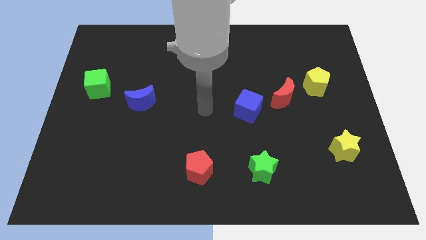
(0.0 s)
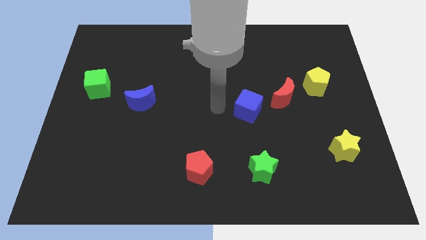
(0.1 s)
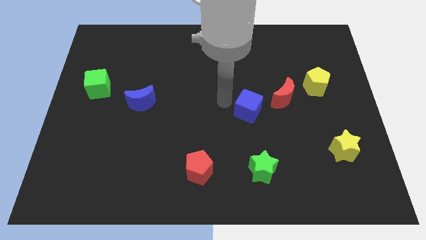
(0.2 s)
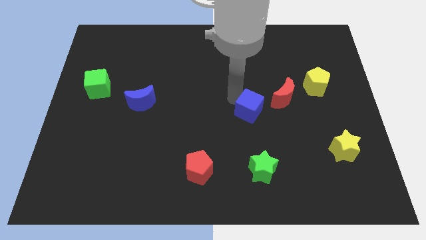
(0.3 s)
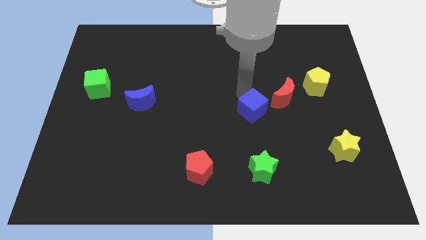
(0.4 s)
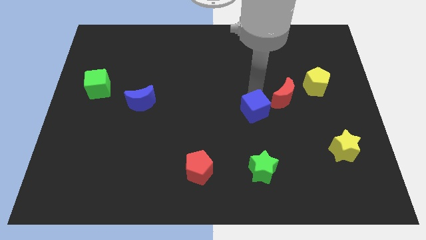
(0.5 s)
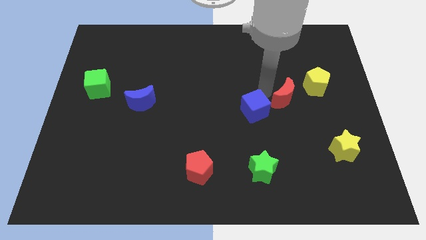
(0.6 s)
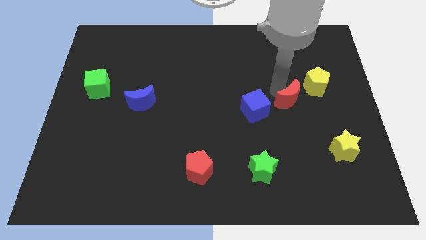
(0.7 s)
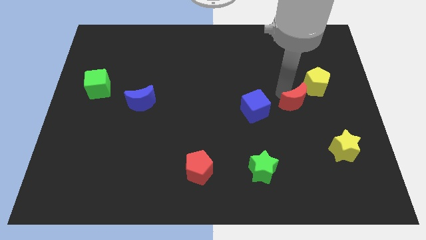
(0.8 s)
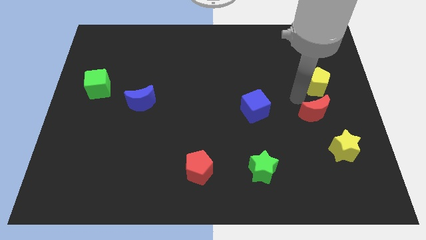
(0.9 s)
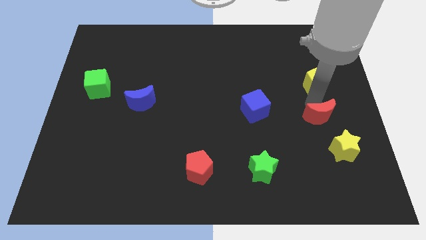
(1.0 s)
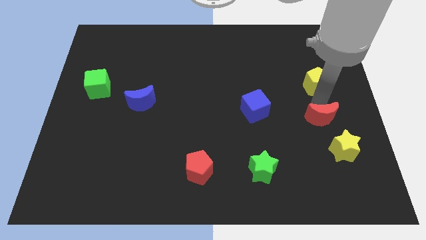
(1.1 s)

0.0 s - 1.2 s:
move the yellow pentagon away from the red moon

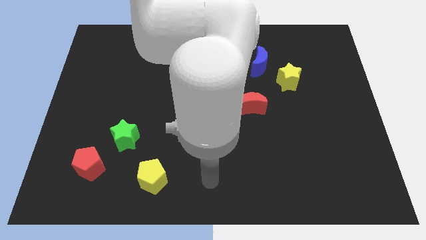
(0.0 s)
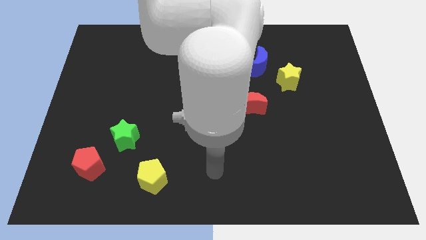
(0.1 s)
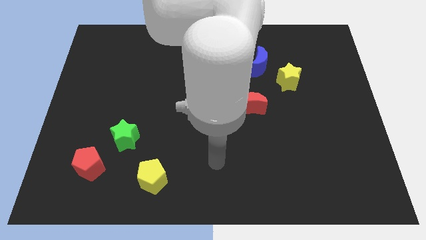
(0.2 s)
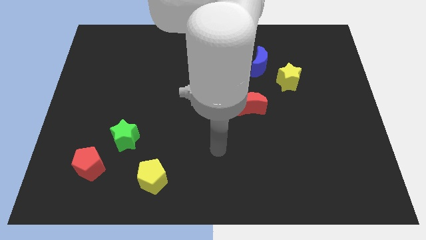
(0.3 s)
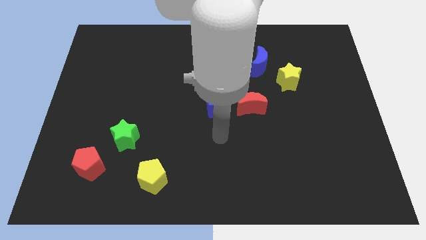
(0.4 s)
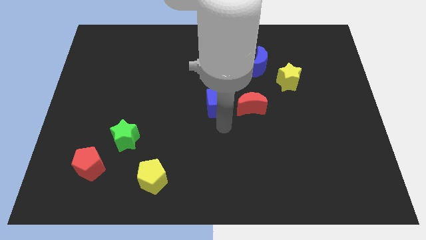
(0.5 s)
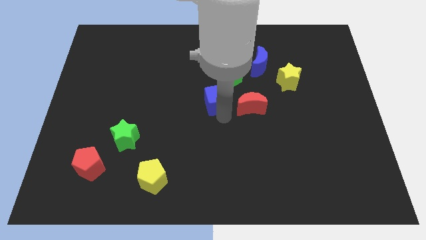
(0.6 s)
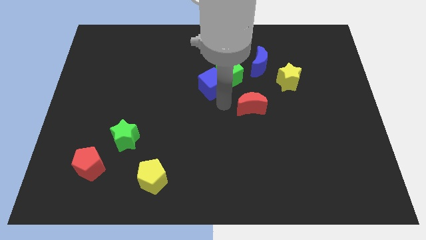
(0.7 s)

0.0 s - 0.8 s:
move the red moon away from the blue cube

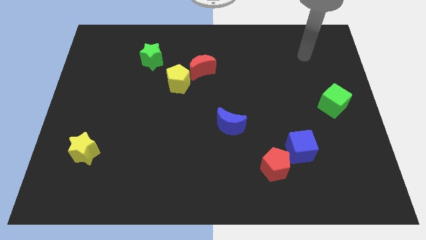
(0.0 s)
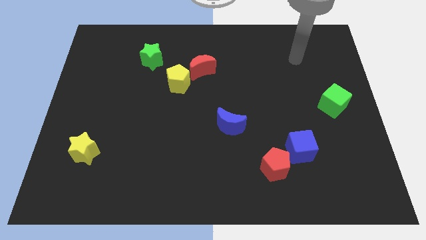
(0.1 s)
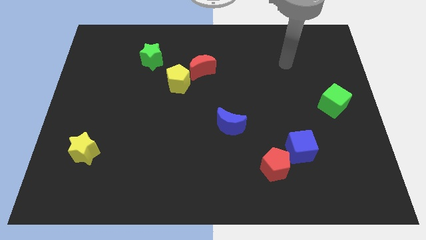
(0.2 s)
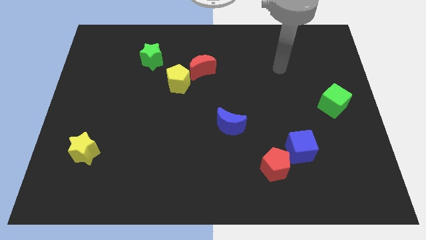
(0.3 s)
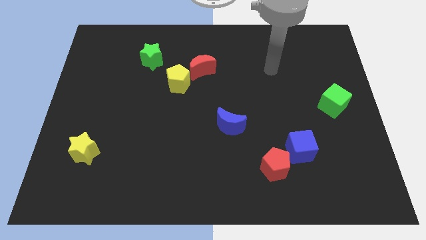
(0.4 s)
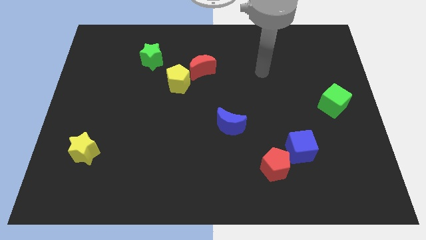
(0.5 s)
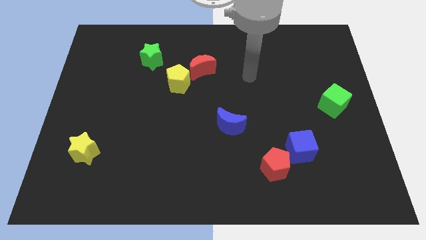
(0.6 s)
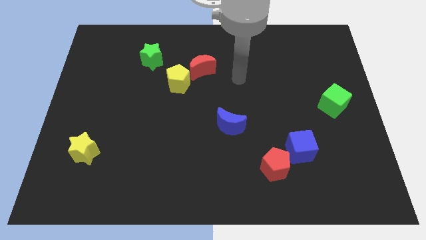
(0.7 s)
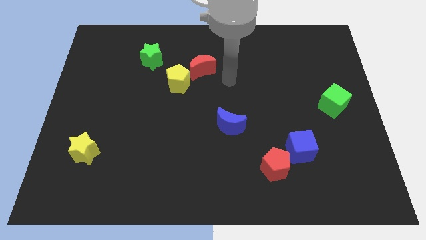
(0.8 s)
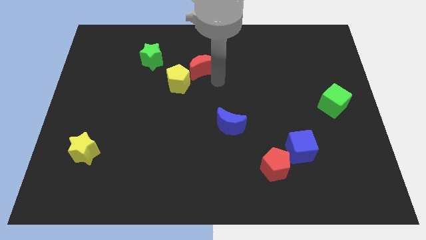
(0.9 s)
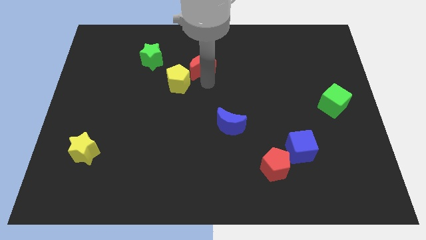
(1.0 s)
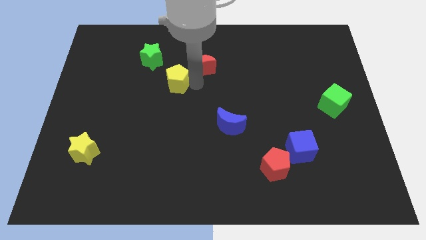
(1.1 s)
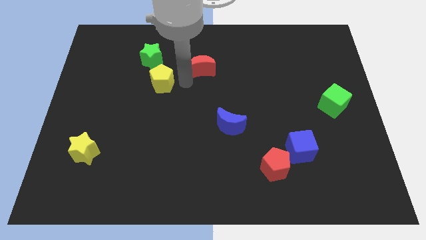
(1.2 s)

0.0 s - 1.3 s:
separate the red moon from the yellow pentagon

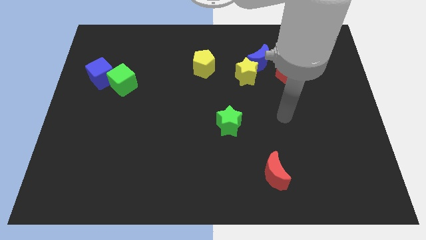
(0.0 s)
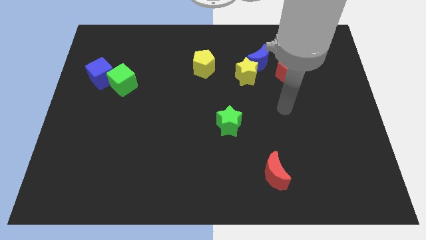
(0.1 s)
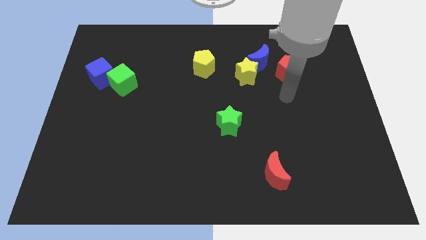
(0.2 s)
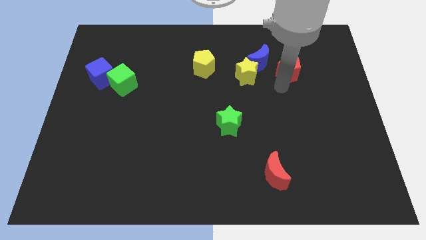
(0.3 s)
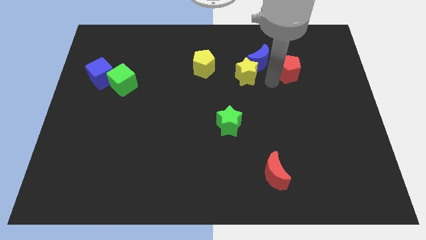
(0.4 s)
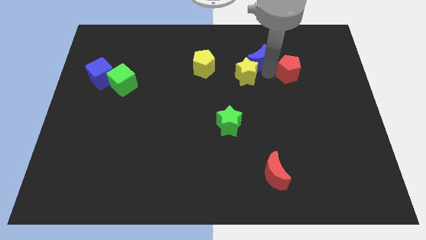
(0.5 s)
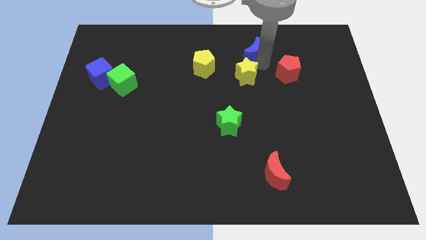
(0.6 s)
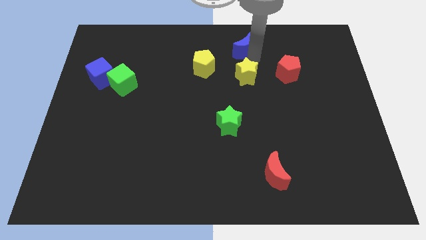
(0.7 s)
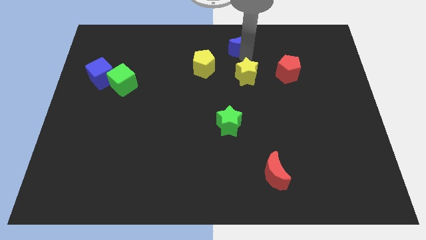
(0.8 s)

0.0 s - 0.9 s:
separate the yellow star from the blue moon

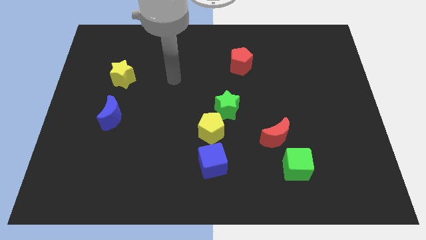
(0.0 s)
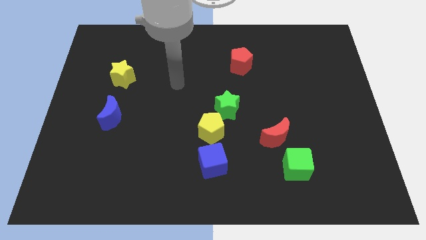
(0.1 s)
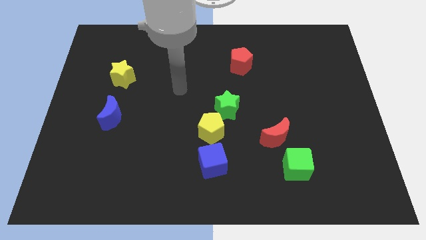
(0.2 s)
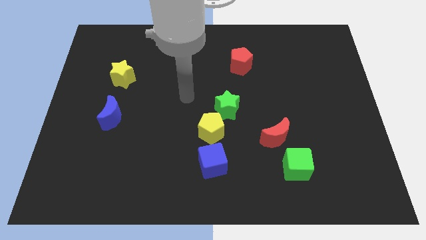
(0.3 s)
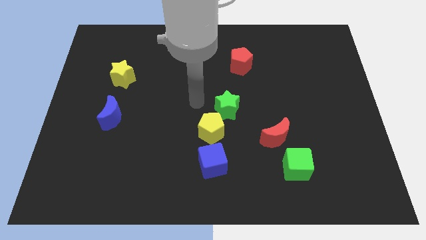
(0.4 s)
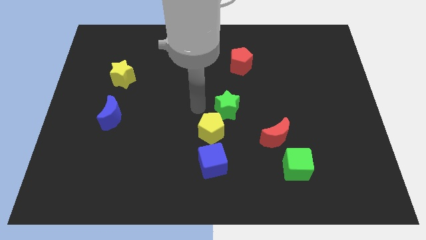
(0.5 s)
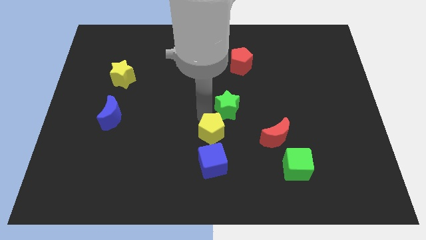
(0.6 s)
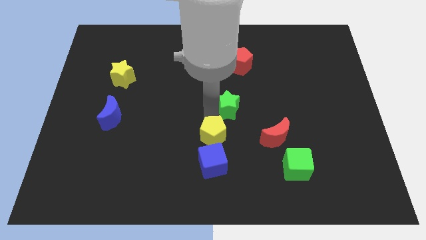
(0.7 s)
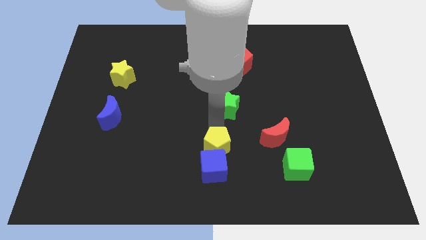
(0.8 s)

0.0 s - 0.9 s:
pull the green star apart from the yellow pentagon

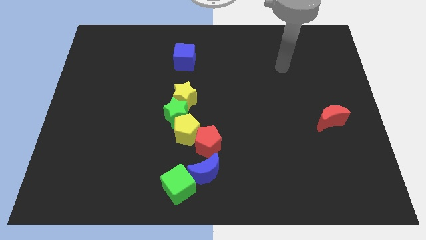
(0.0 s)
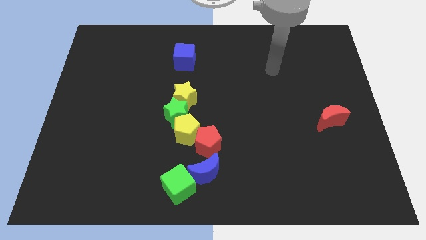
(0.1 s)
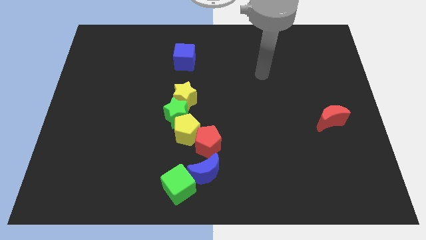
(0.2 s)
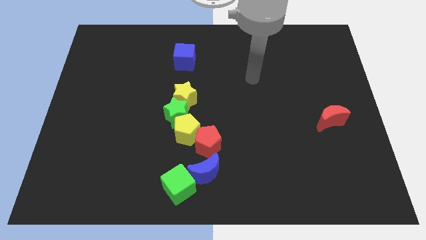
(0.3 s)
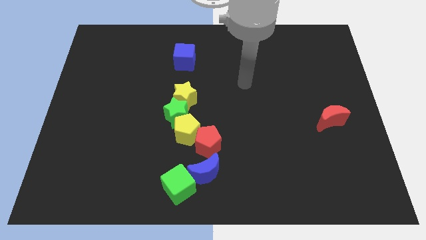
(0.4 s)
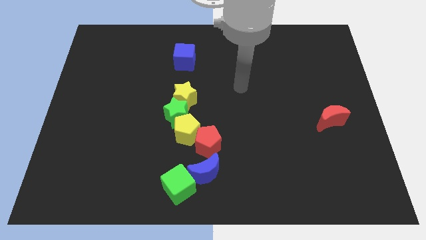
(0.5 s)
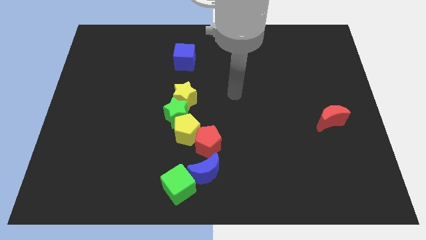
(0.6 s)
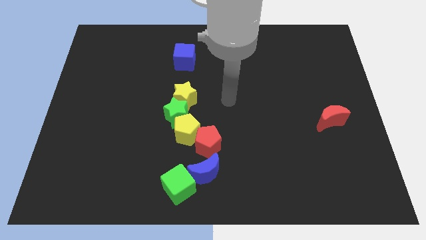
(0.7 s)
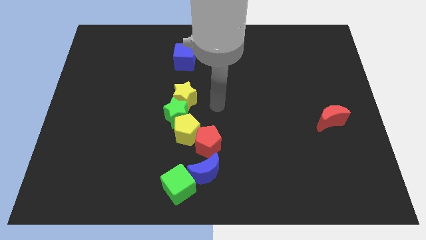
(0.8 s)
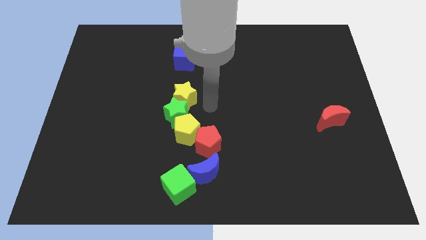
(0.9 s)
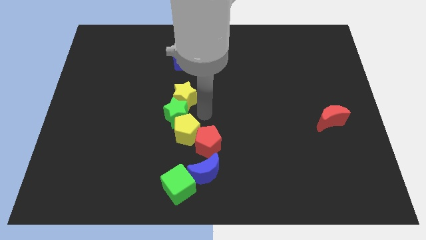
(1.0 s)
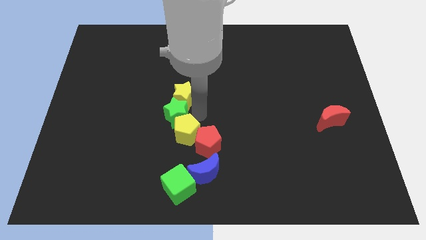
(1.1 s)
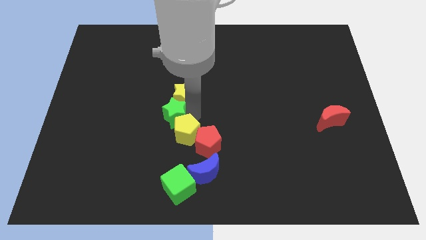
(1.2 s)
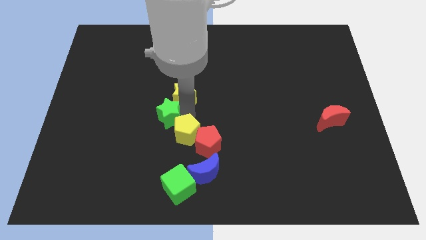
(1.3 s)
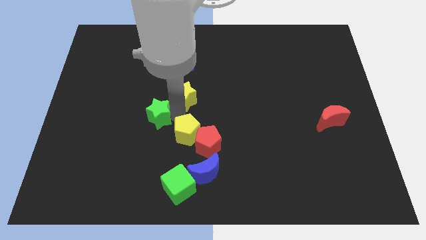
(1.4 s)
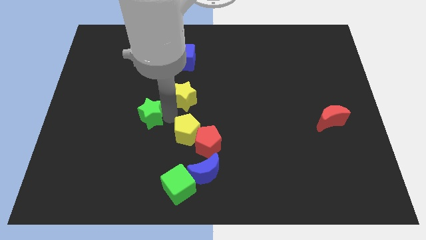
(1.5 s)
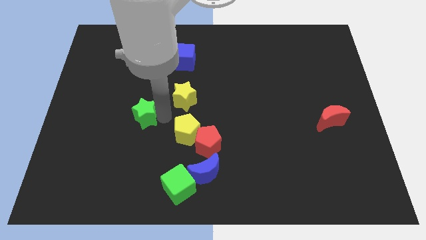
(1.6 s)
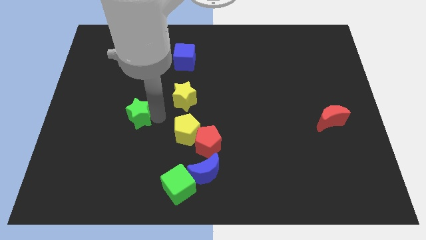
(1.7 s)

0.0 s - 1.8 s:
move the green star away from the yellow star and yellow pentagon

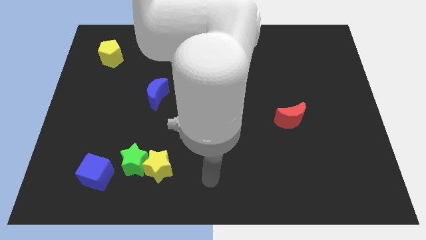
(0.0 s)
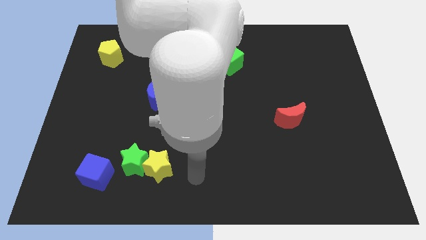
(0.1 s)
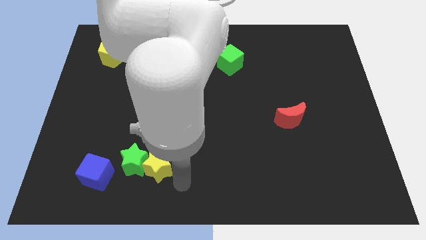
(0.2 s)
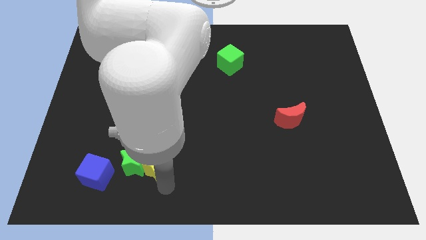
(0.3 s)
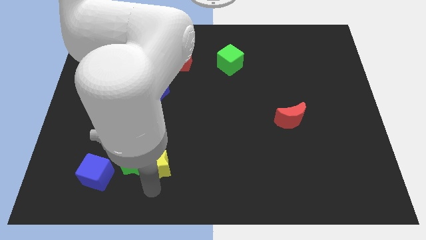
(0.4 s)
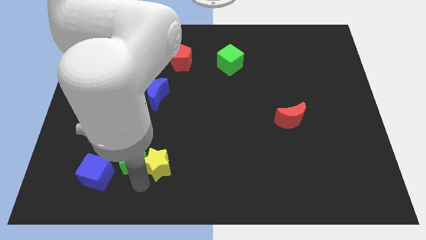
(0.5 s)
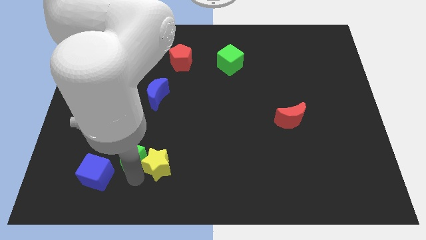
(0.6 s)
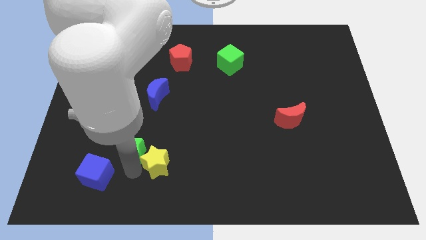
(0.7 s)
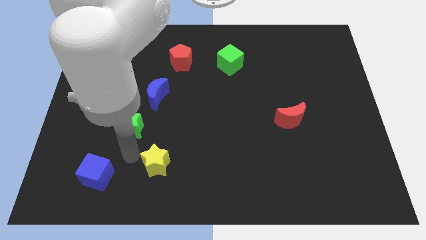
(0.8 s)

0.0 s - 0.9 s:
pull the yellow star apart from the green star

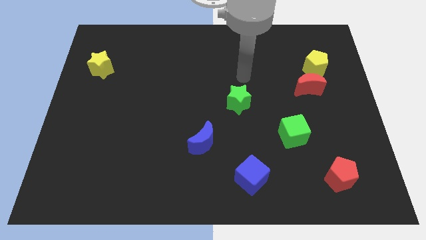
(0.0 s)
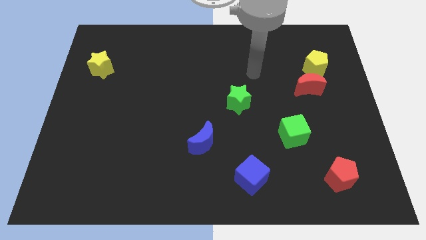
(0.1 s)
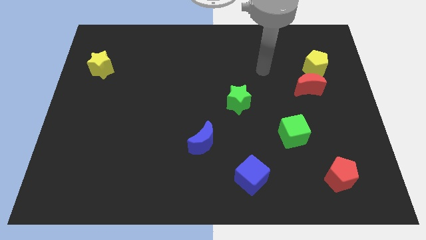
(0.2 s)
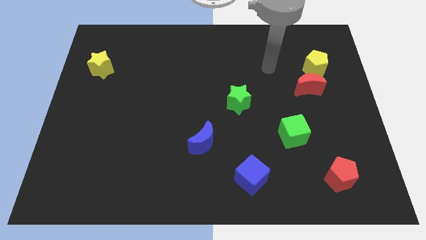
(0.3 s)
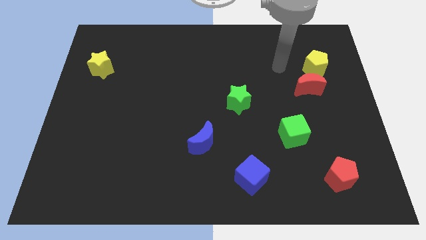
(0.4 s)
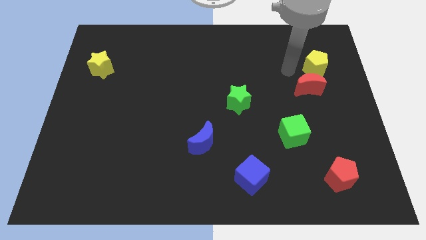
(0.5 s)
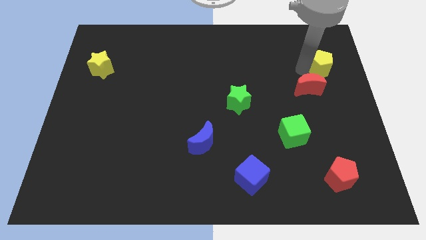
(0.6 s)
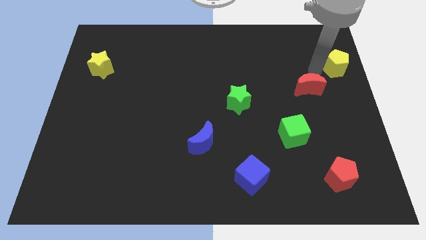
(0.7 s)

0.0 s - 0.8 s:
pull the red moon apart from the yellow pentagon

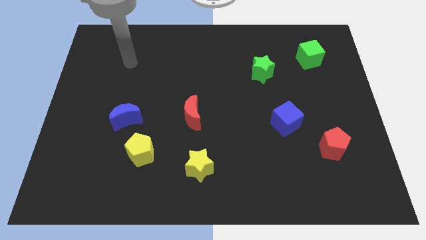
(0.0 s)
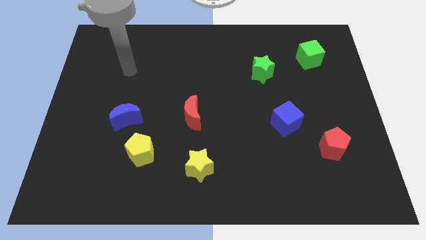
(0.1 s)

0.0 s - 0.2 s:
pull the blue moon apart from the yellow pentagon

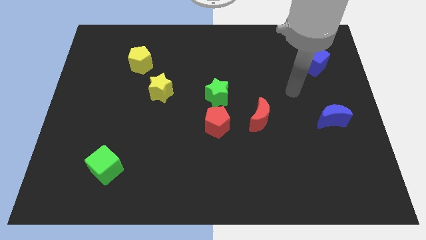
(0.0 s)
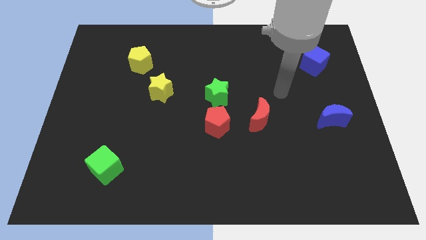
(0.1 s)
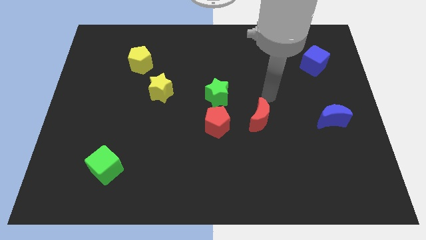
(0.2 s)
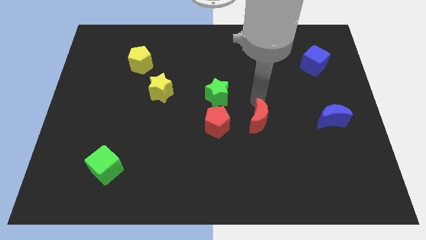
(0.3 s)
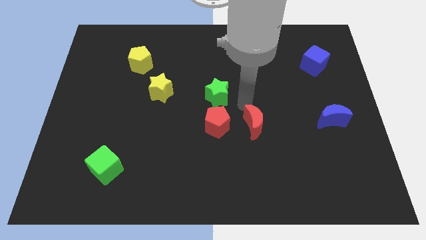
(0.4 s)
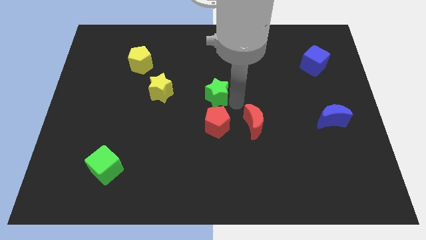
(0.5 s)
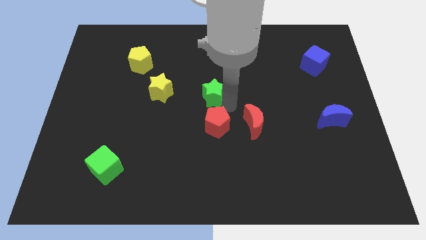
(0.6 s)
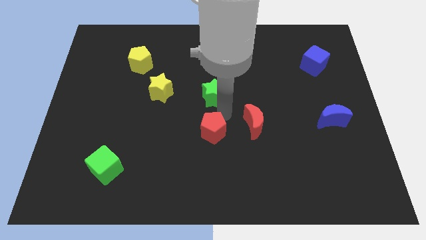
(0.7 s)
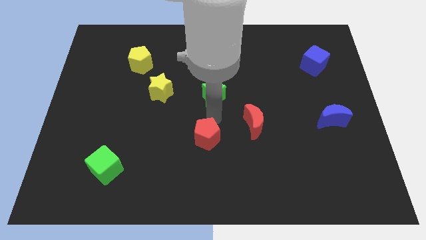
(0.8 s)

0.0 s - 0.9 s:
separate the green star from the red pentagon
